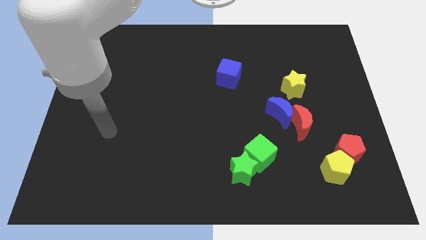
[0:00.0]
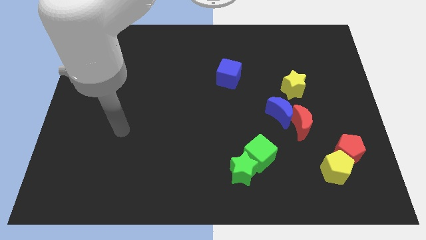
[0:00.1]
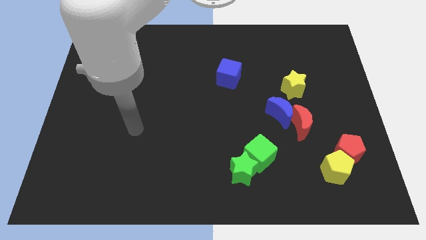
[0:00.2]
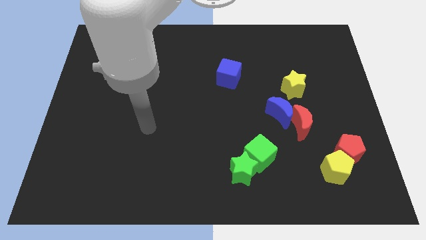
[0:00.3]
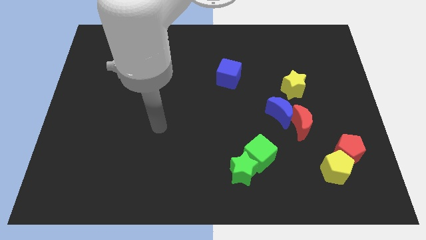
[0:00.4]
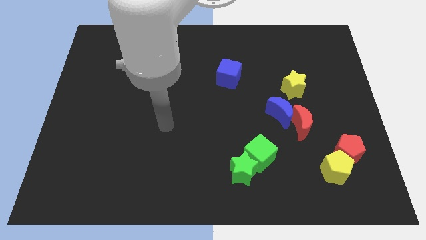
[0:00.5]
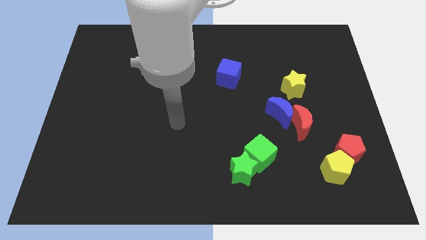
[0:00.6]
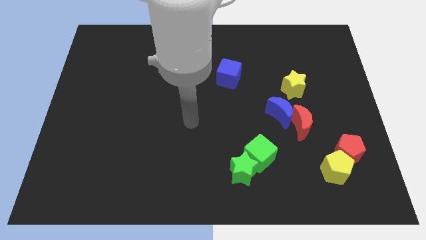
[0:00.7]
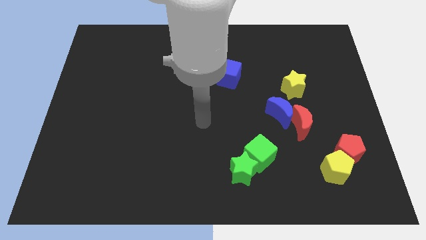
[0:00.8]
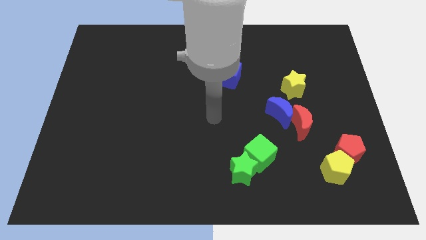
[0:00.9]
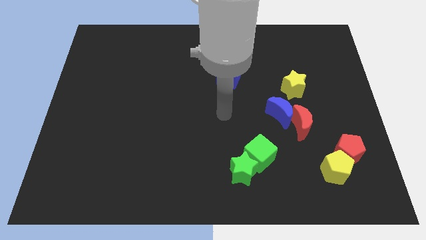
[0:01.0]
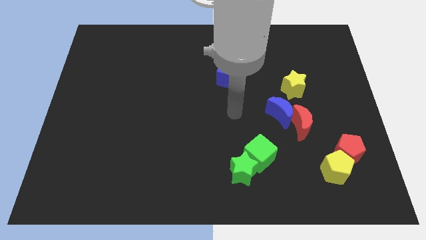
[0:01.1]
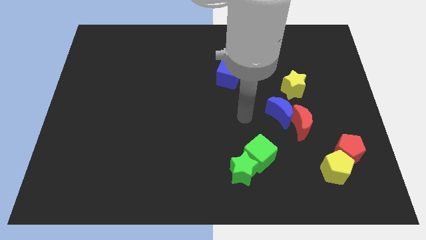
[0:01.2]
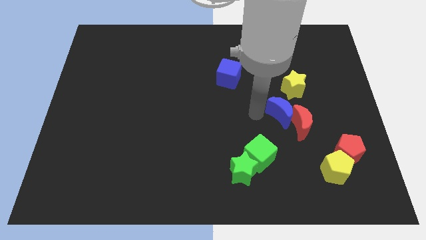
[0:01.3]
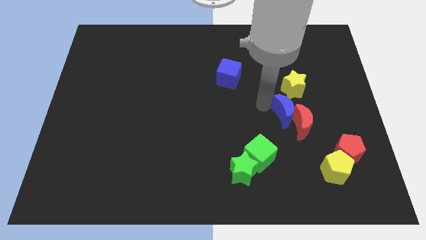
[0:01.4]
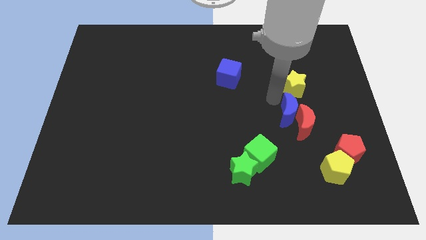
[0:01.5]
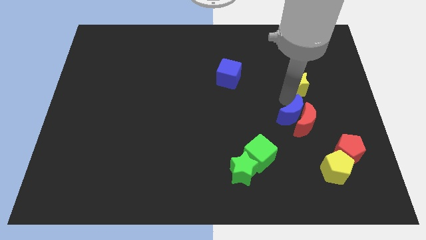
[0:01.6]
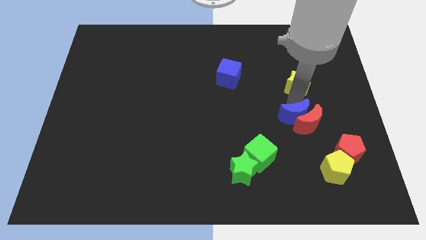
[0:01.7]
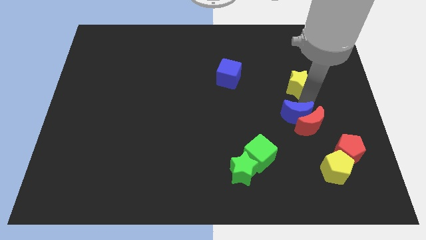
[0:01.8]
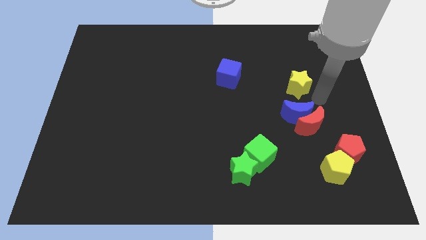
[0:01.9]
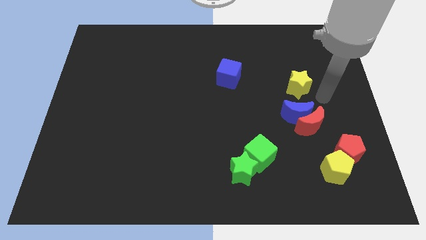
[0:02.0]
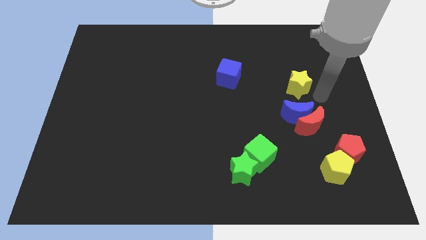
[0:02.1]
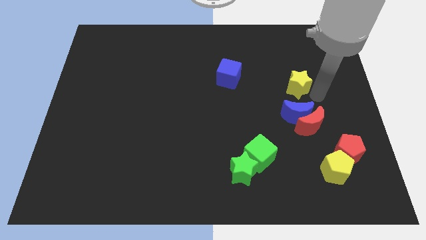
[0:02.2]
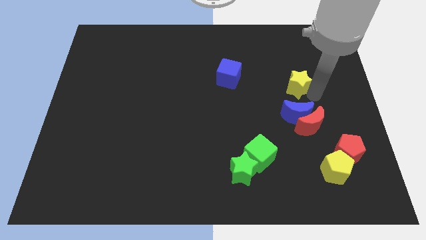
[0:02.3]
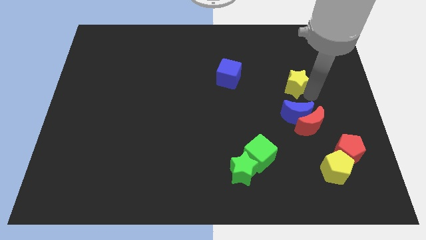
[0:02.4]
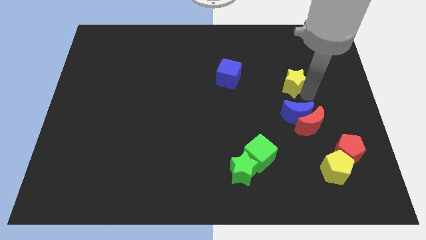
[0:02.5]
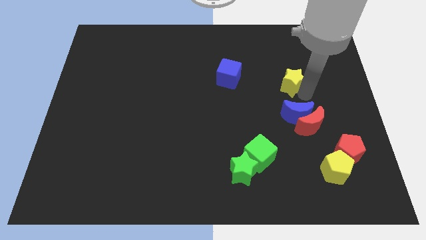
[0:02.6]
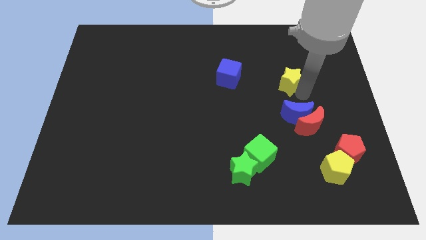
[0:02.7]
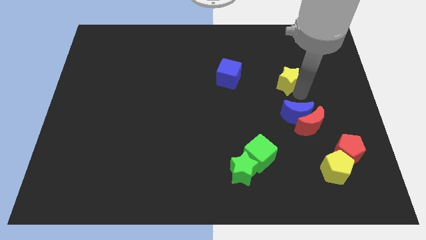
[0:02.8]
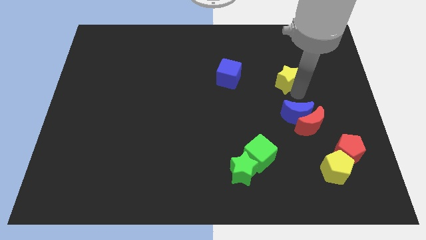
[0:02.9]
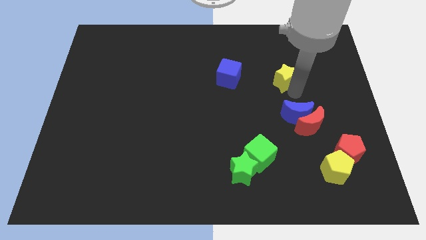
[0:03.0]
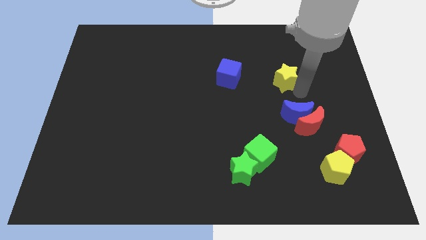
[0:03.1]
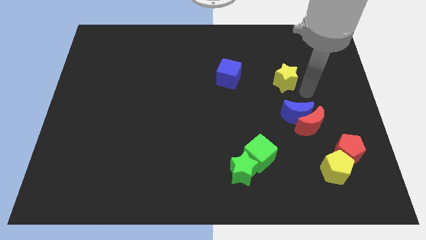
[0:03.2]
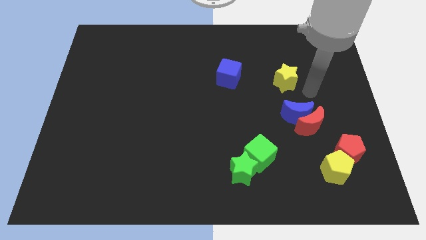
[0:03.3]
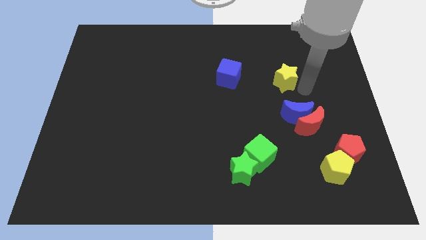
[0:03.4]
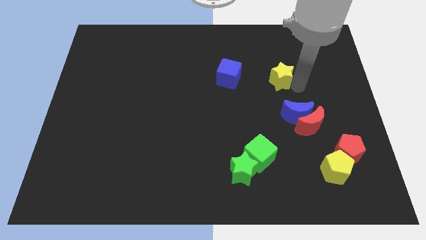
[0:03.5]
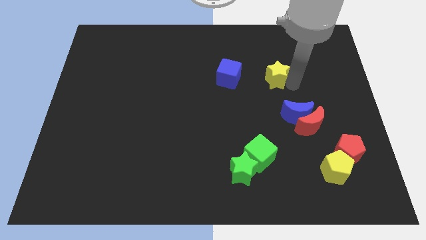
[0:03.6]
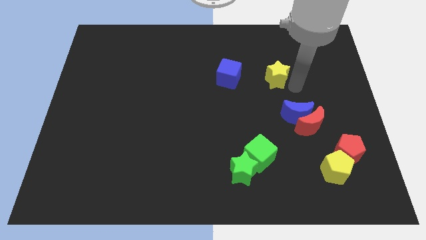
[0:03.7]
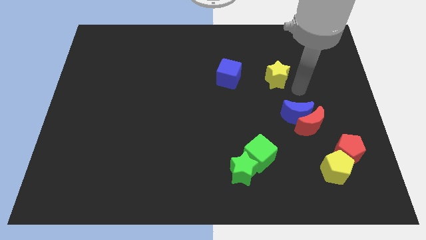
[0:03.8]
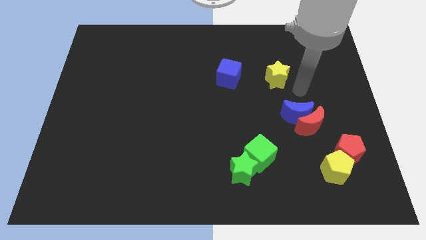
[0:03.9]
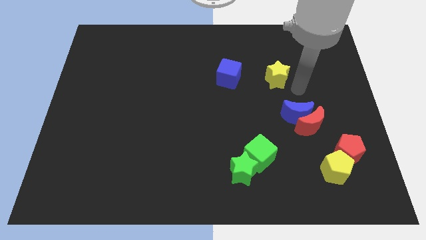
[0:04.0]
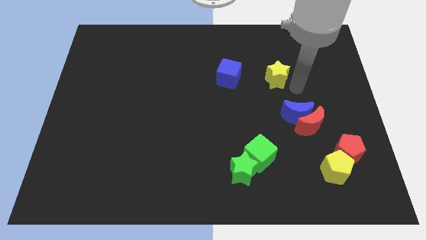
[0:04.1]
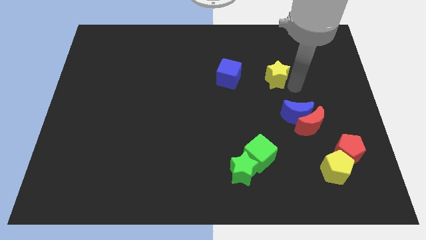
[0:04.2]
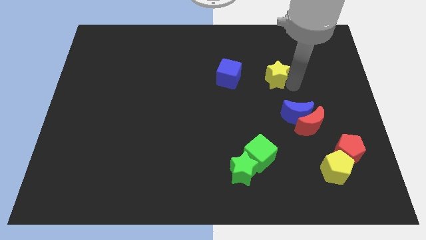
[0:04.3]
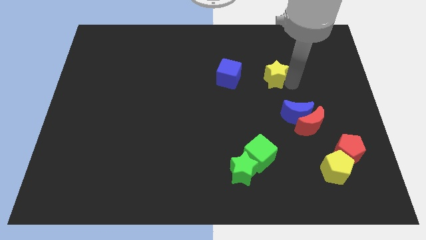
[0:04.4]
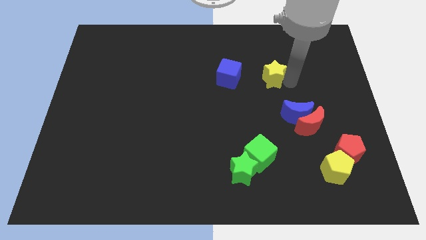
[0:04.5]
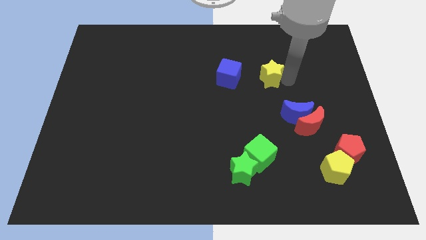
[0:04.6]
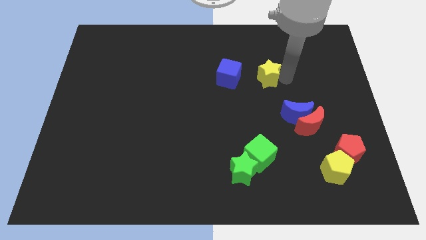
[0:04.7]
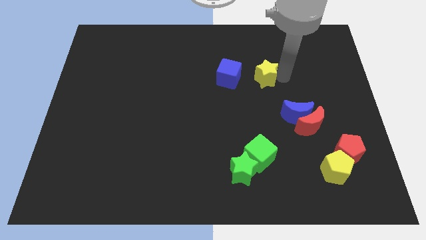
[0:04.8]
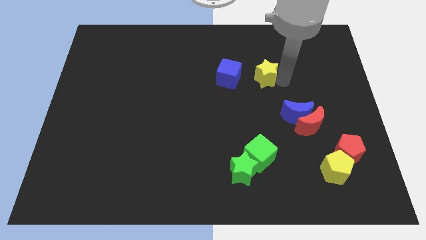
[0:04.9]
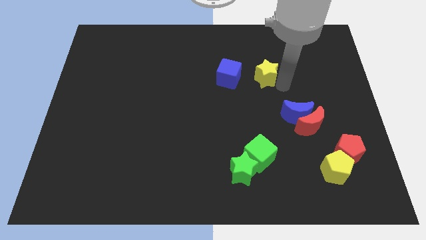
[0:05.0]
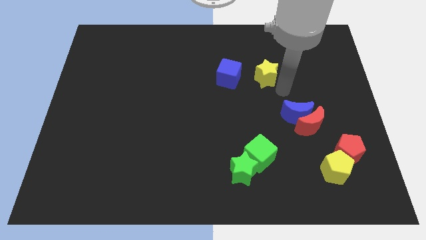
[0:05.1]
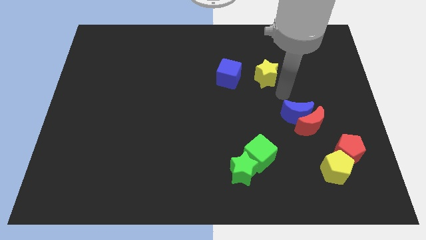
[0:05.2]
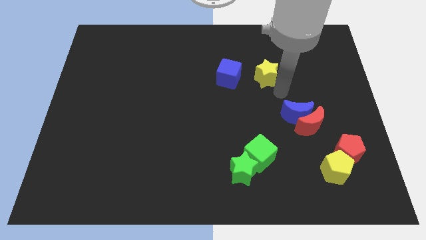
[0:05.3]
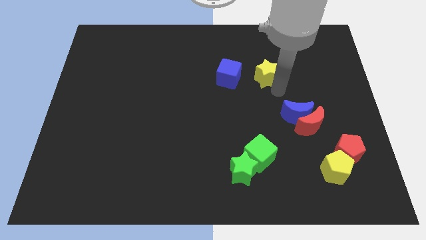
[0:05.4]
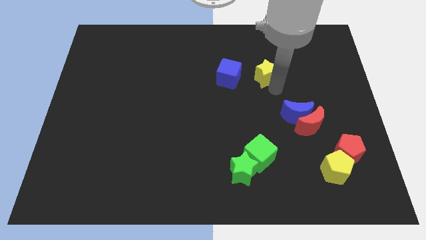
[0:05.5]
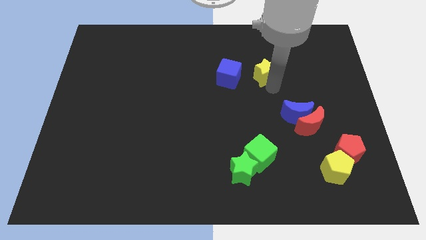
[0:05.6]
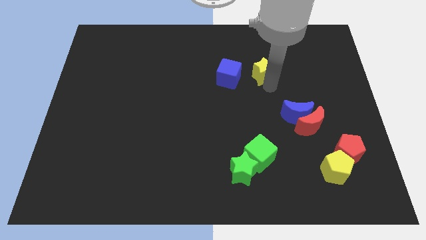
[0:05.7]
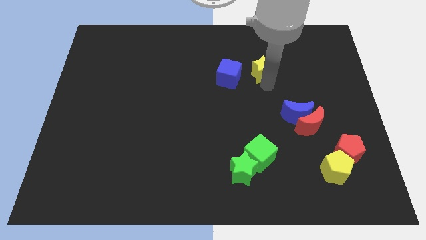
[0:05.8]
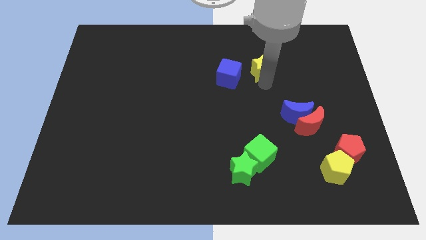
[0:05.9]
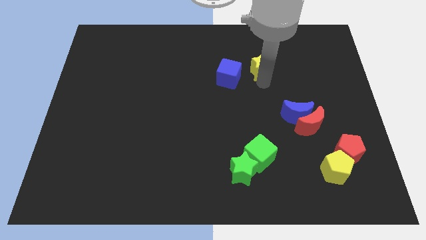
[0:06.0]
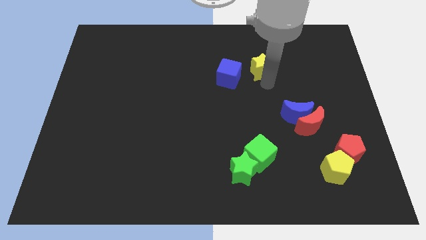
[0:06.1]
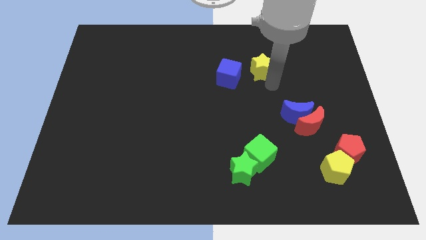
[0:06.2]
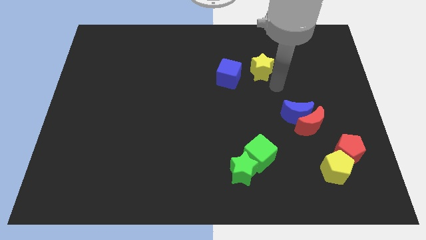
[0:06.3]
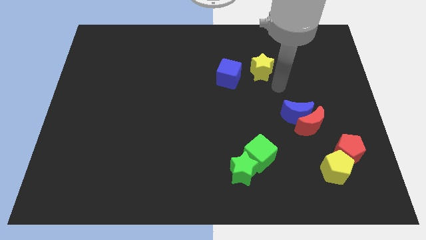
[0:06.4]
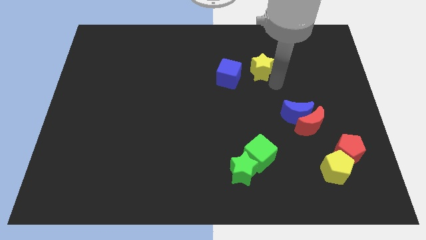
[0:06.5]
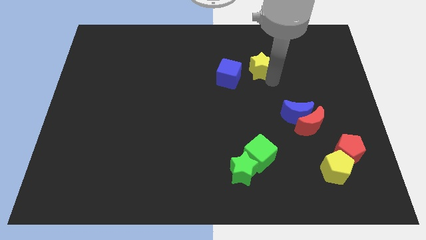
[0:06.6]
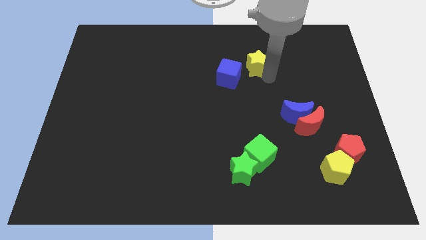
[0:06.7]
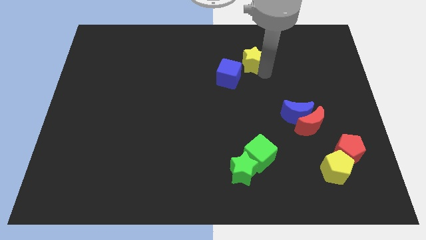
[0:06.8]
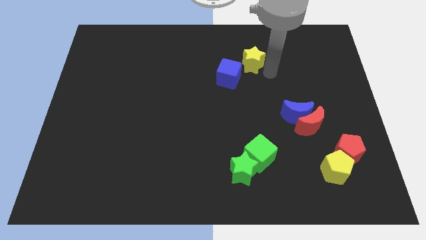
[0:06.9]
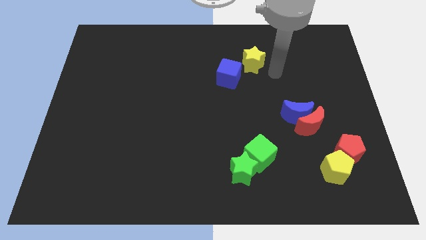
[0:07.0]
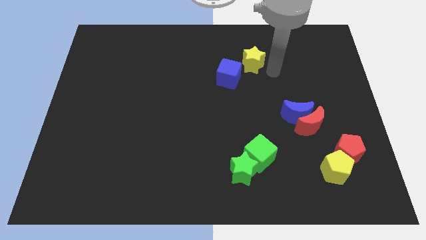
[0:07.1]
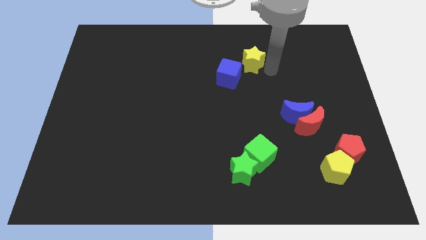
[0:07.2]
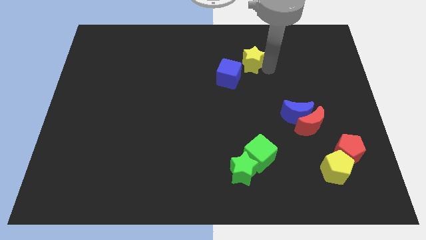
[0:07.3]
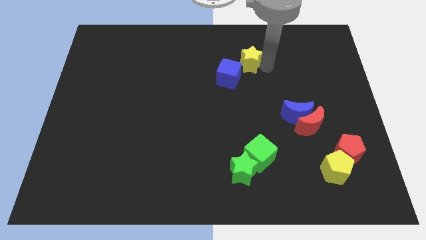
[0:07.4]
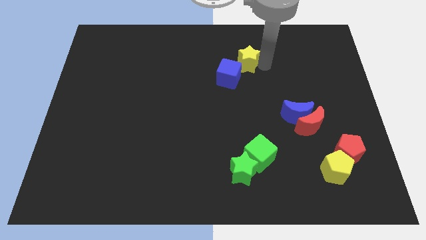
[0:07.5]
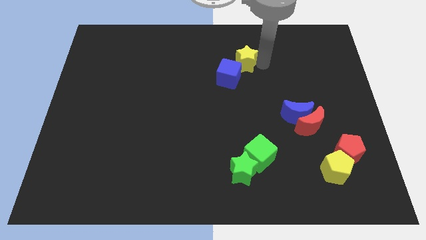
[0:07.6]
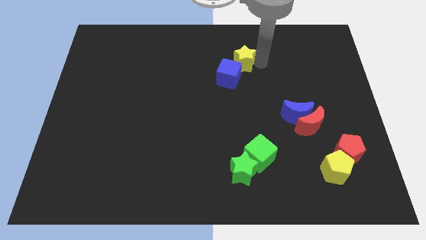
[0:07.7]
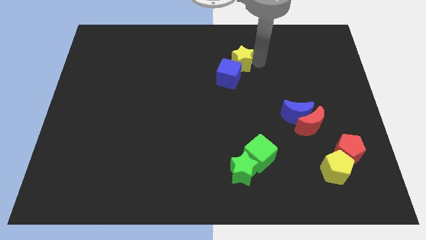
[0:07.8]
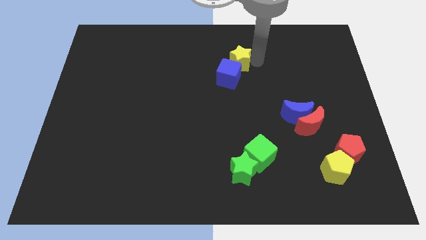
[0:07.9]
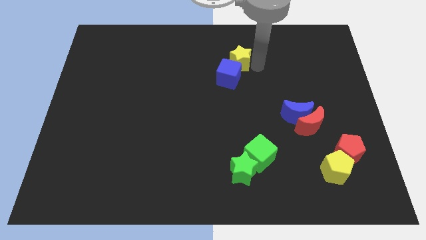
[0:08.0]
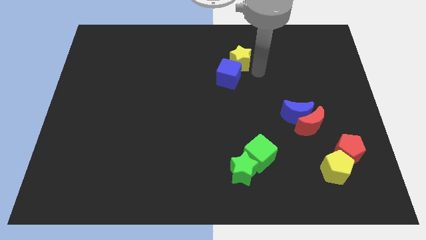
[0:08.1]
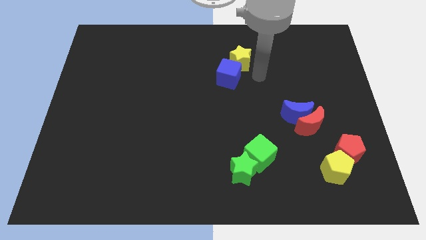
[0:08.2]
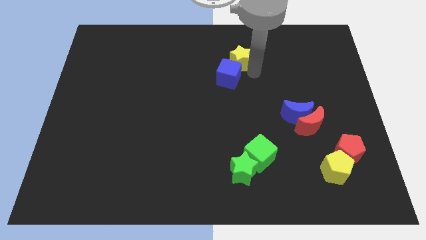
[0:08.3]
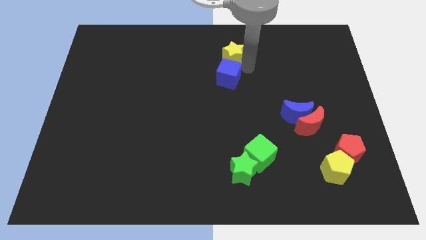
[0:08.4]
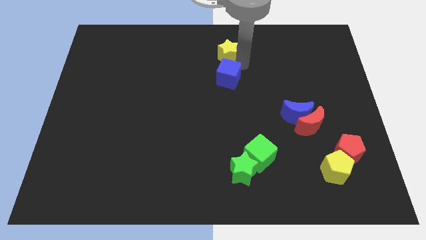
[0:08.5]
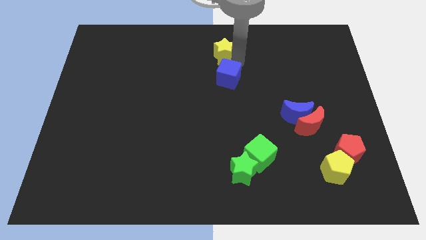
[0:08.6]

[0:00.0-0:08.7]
push the yellow star to the towards your base
